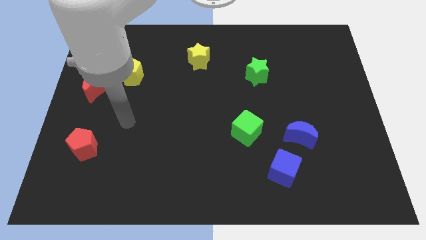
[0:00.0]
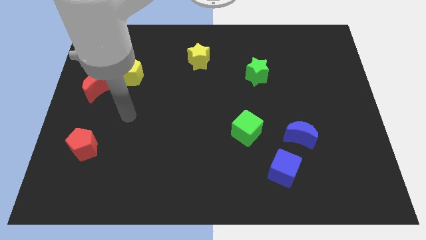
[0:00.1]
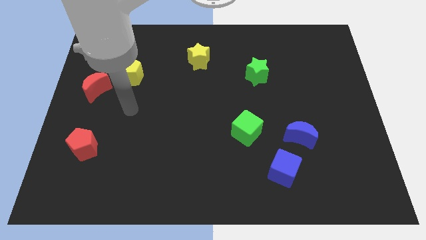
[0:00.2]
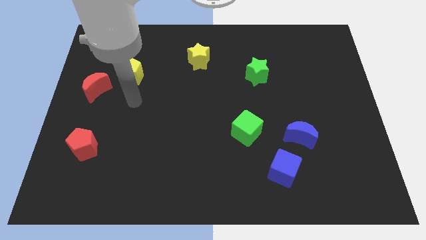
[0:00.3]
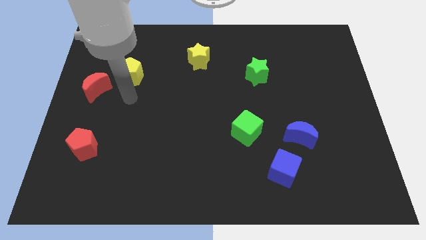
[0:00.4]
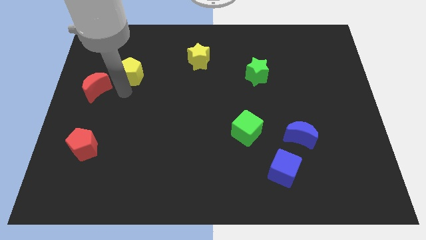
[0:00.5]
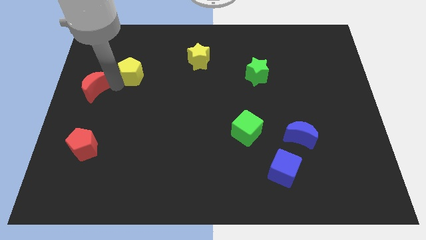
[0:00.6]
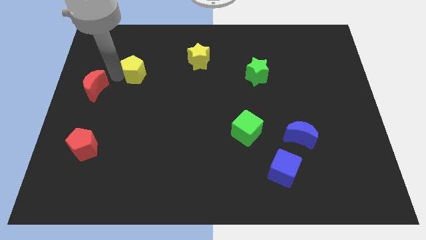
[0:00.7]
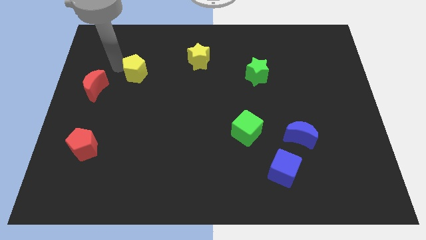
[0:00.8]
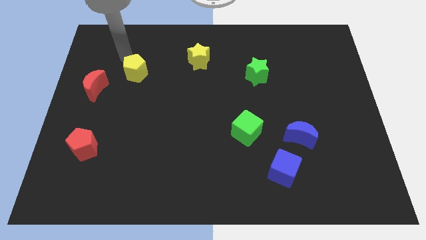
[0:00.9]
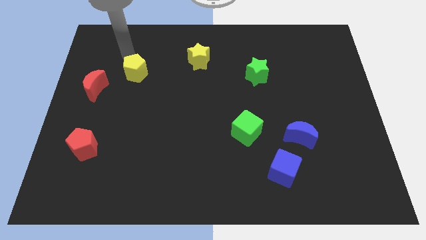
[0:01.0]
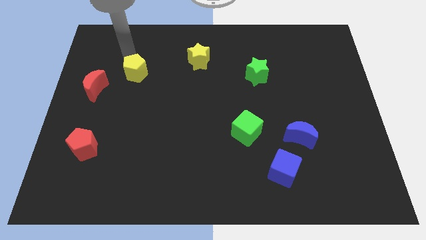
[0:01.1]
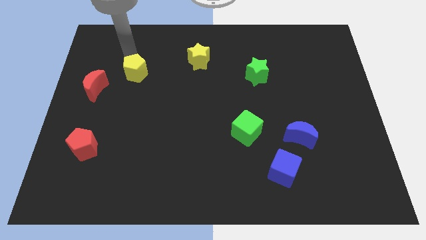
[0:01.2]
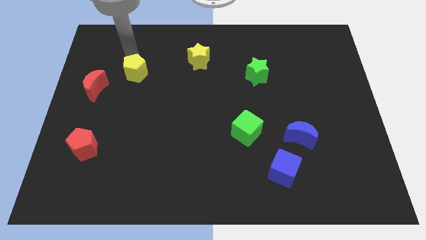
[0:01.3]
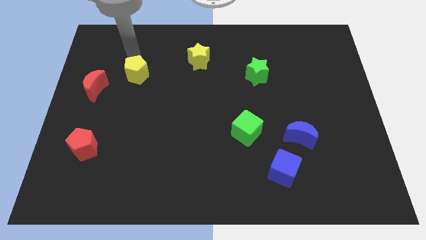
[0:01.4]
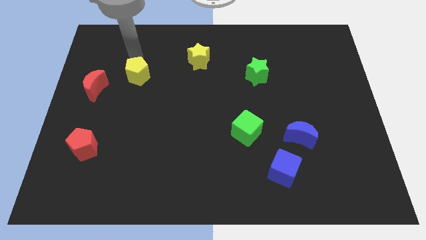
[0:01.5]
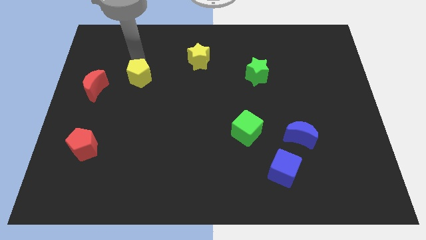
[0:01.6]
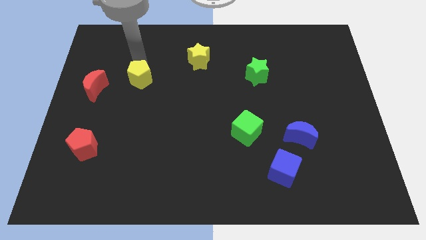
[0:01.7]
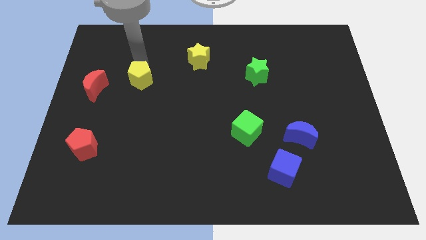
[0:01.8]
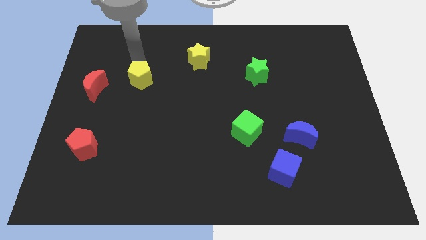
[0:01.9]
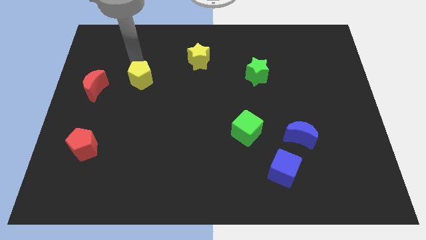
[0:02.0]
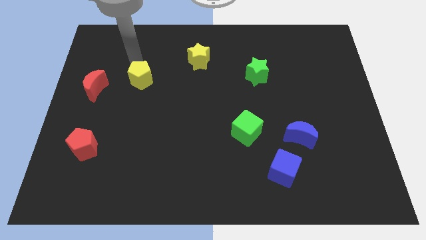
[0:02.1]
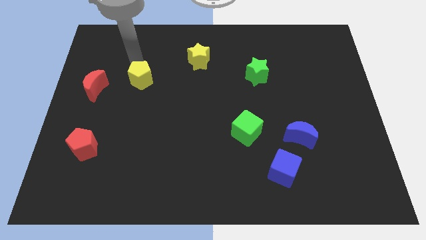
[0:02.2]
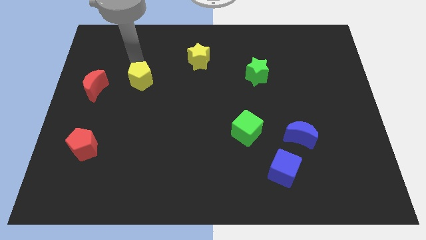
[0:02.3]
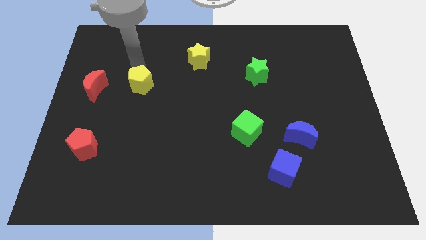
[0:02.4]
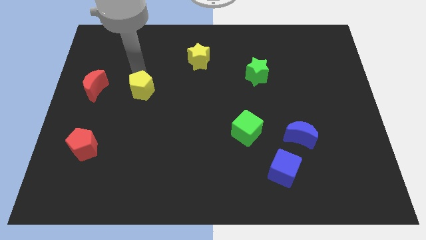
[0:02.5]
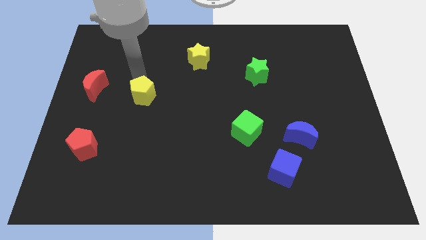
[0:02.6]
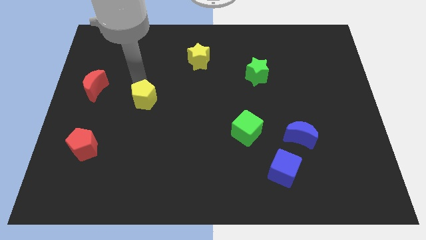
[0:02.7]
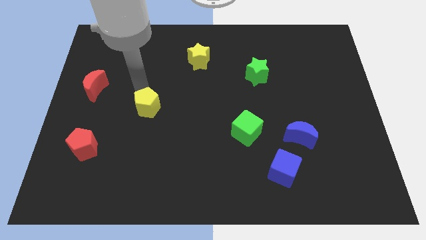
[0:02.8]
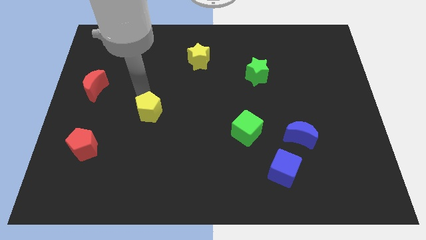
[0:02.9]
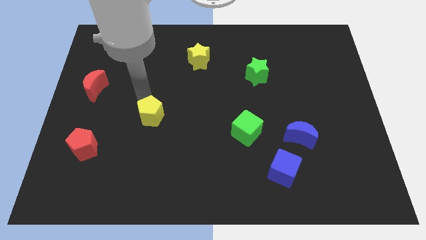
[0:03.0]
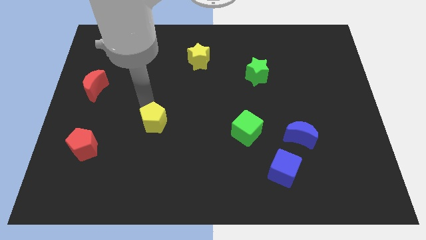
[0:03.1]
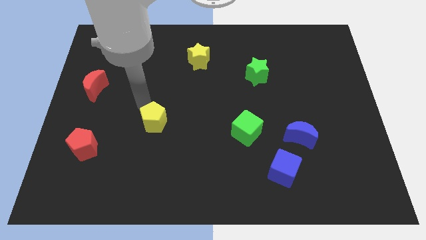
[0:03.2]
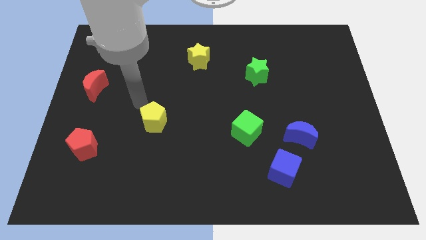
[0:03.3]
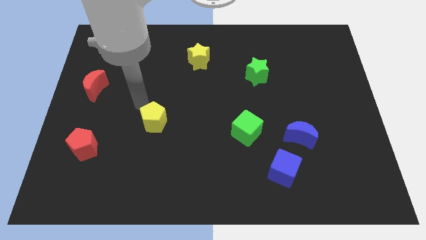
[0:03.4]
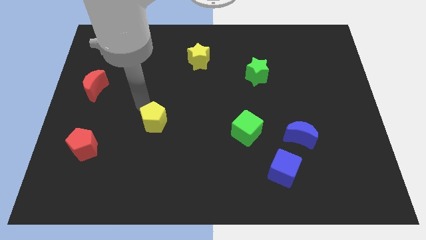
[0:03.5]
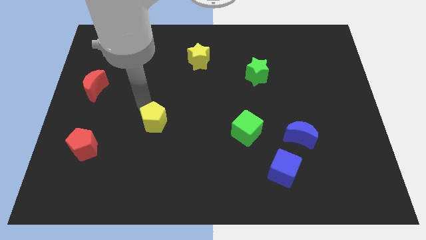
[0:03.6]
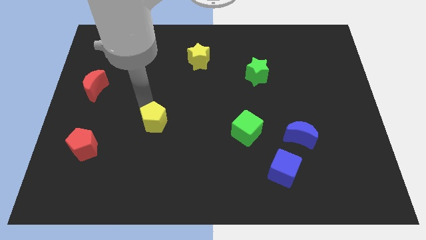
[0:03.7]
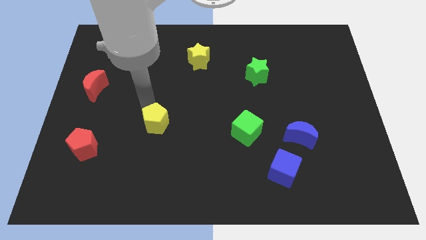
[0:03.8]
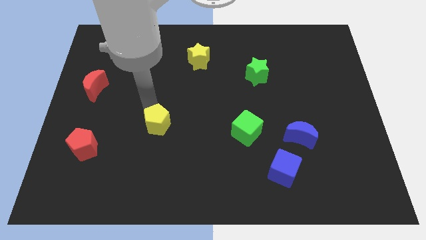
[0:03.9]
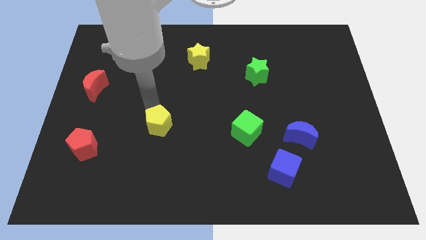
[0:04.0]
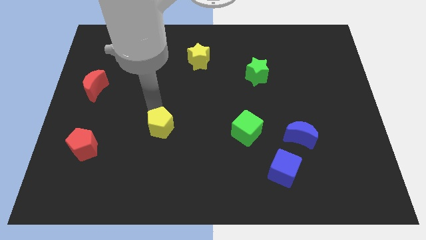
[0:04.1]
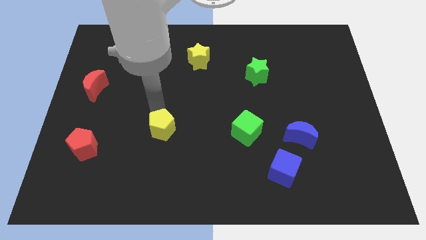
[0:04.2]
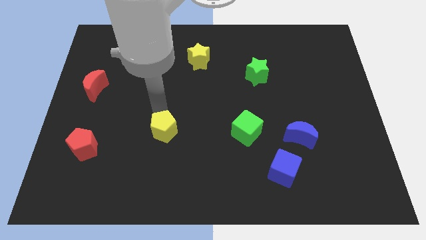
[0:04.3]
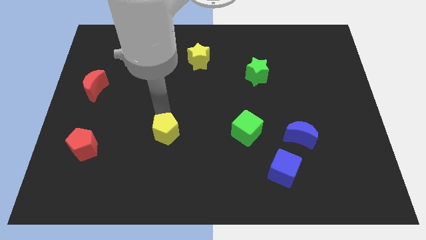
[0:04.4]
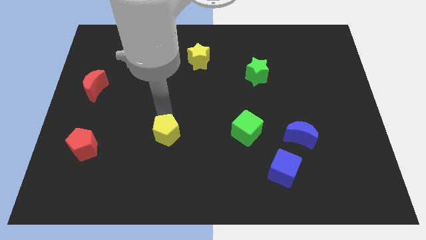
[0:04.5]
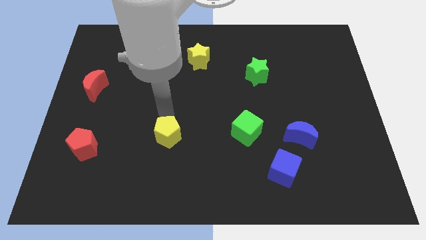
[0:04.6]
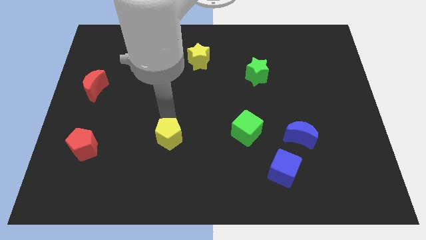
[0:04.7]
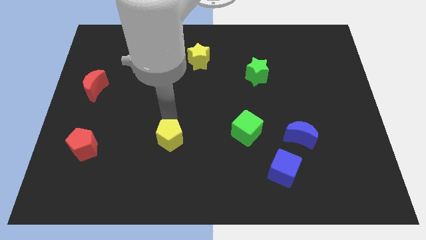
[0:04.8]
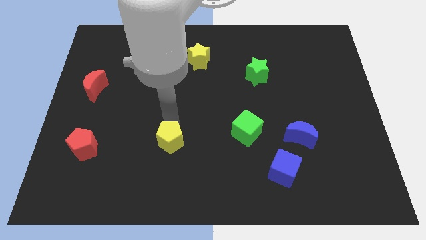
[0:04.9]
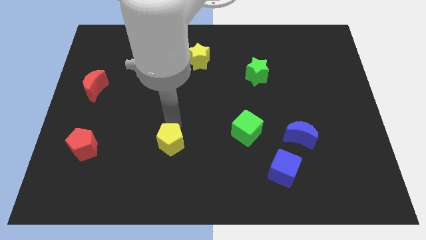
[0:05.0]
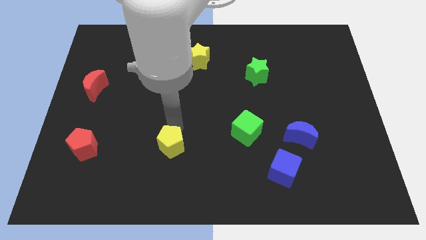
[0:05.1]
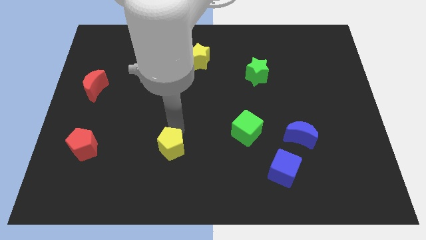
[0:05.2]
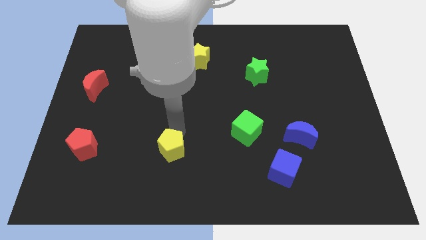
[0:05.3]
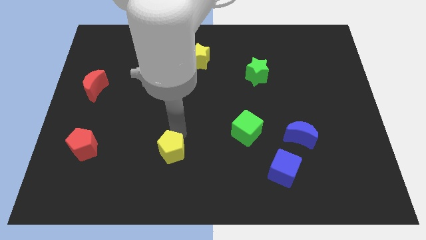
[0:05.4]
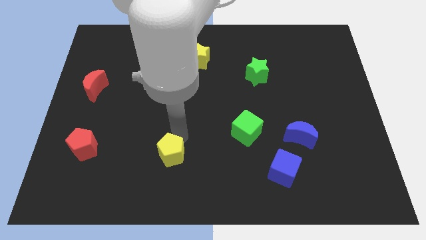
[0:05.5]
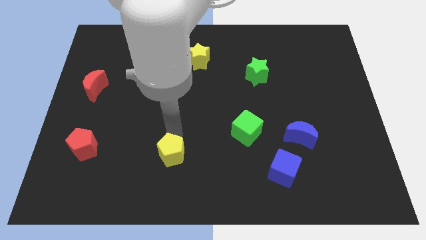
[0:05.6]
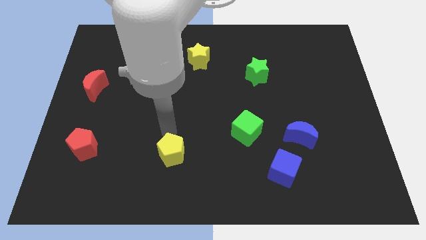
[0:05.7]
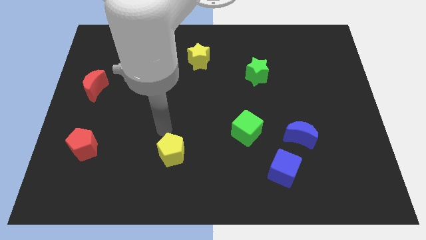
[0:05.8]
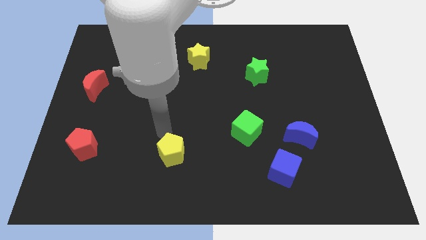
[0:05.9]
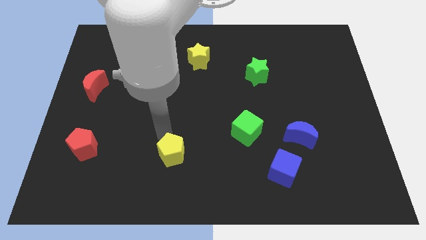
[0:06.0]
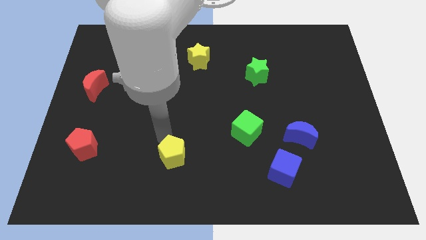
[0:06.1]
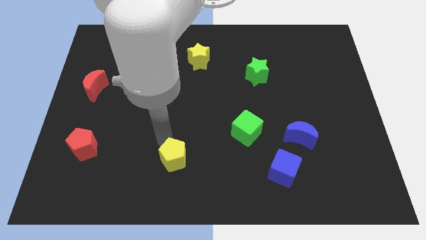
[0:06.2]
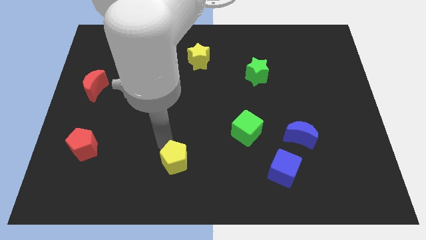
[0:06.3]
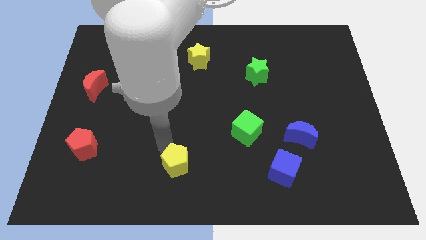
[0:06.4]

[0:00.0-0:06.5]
push the yellow pentagon to the bottom side

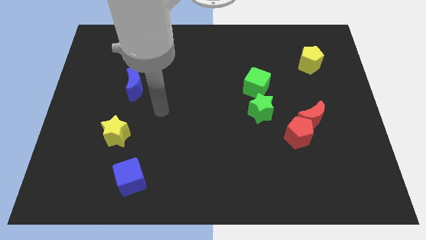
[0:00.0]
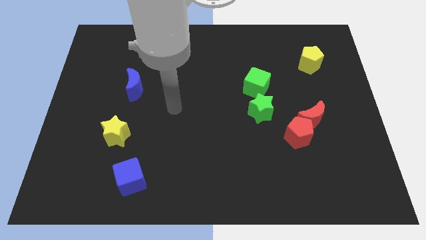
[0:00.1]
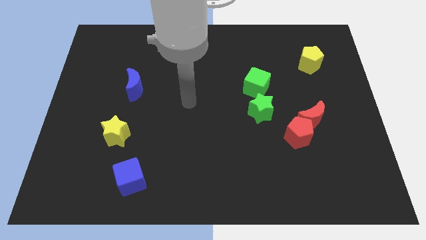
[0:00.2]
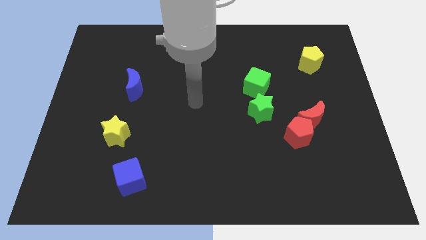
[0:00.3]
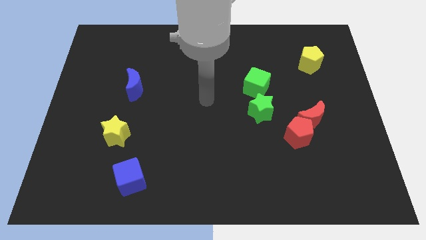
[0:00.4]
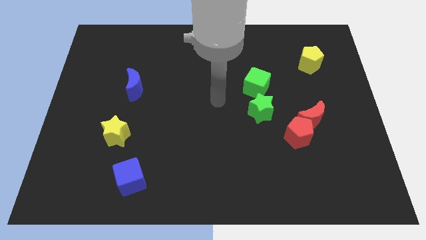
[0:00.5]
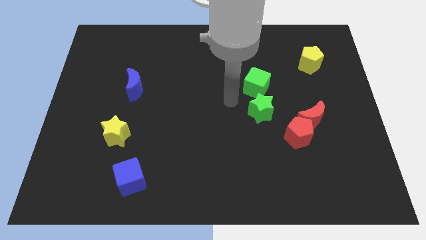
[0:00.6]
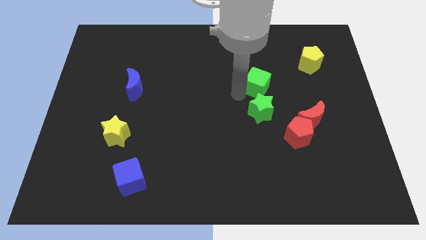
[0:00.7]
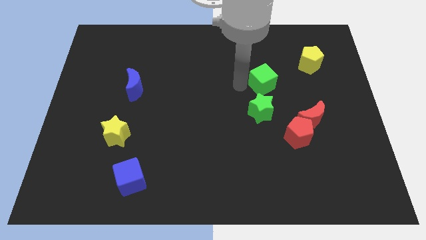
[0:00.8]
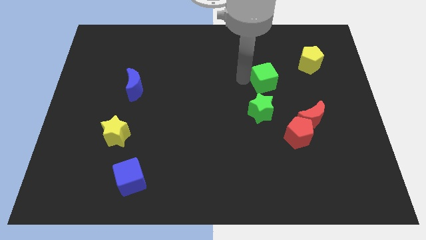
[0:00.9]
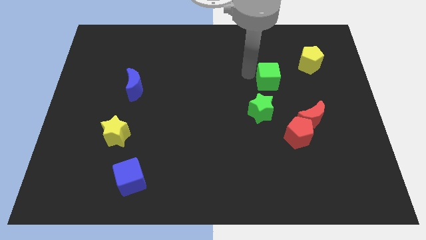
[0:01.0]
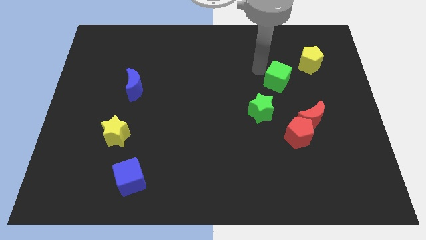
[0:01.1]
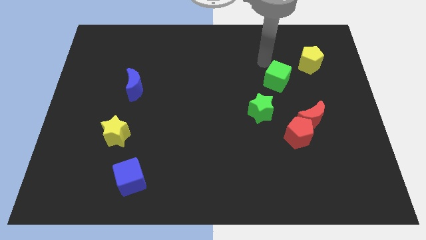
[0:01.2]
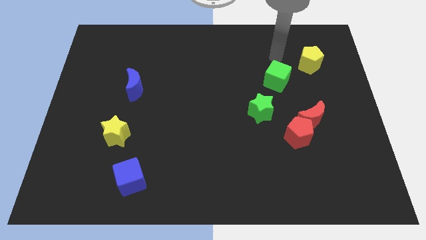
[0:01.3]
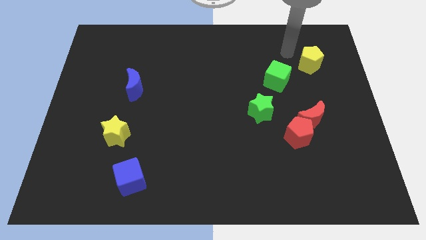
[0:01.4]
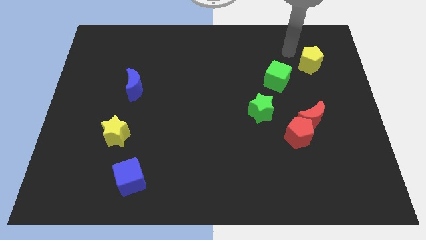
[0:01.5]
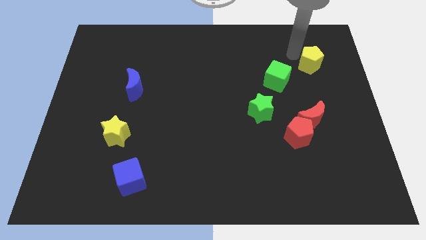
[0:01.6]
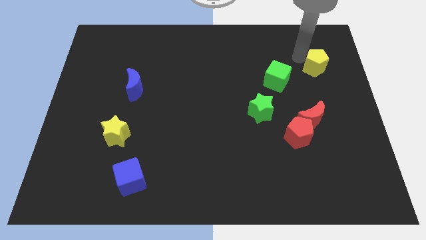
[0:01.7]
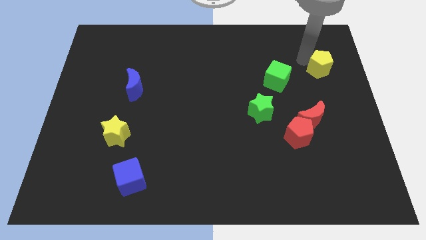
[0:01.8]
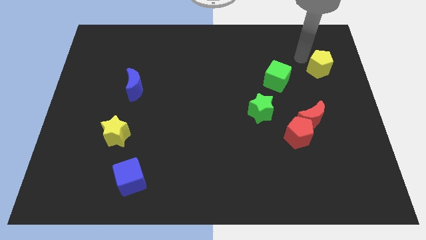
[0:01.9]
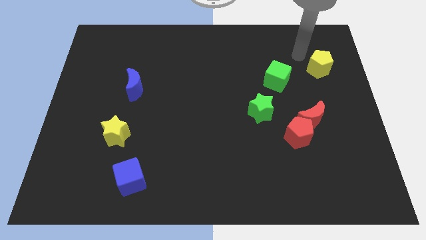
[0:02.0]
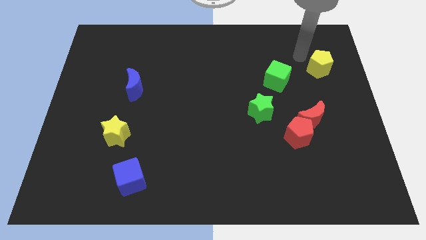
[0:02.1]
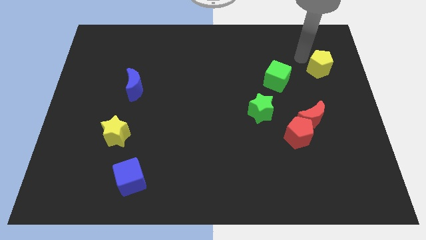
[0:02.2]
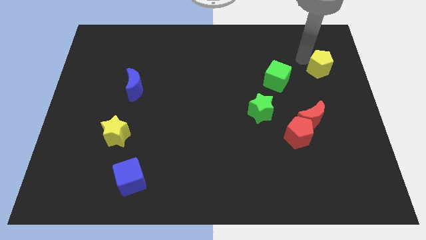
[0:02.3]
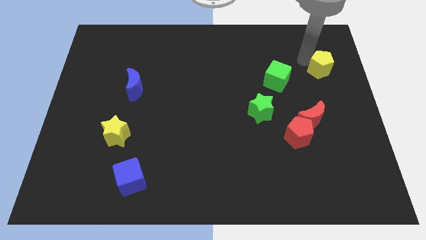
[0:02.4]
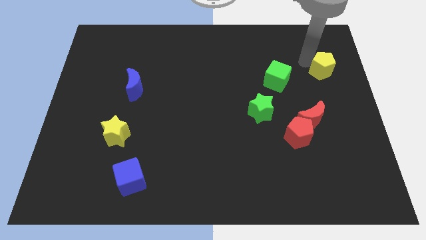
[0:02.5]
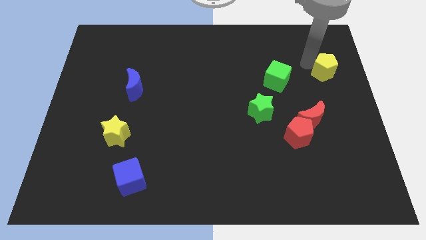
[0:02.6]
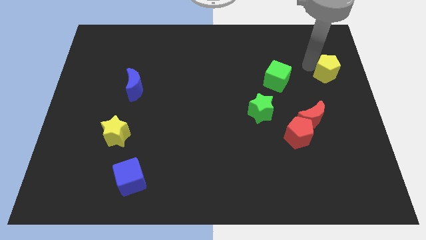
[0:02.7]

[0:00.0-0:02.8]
put the yellow pentagon to the right side
